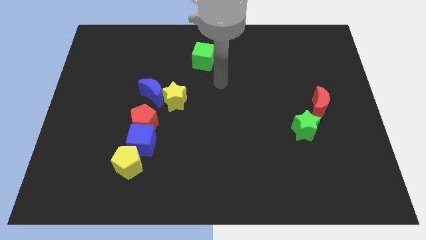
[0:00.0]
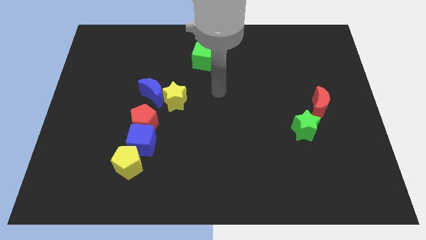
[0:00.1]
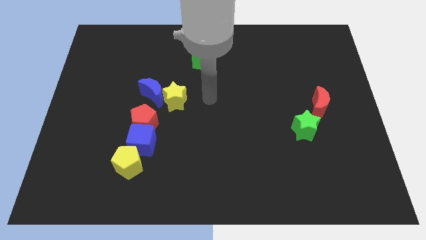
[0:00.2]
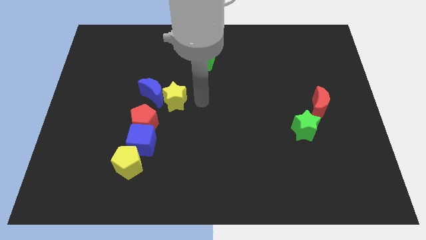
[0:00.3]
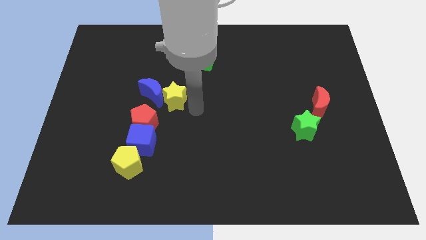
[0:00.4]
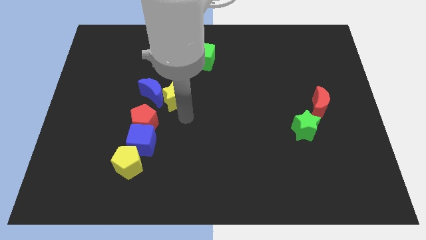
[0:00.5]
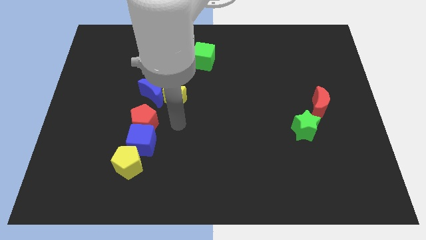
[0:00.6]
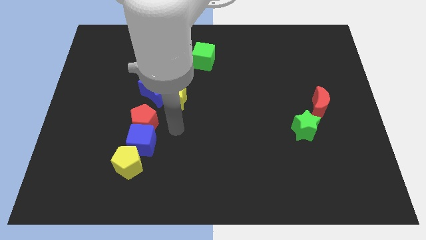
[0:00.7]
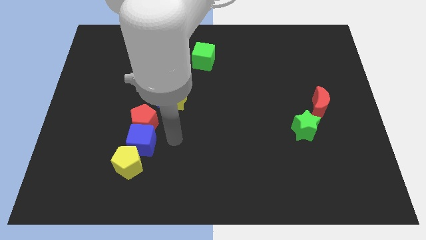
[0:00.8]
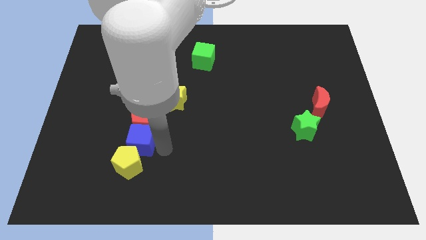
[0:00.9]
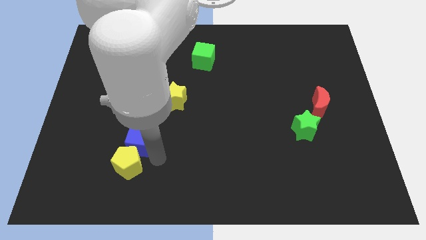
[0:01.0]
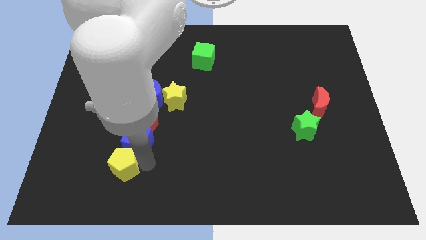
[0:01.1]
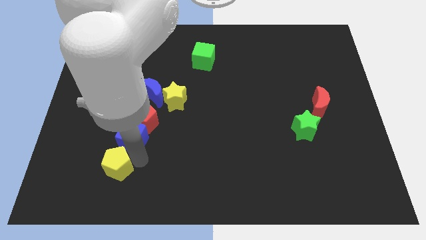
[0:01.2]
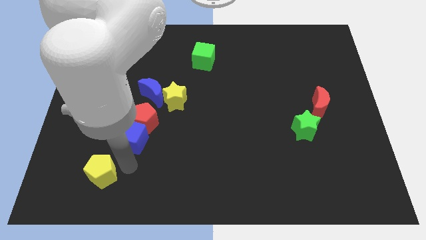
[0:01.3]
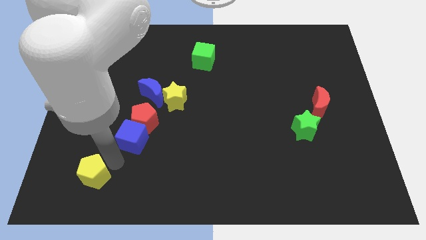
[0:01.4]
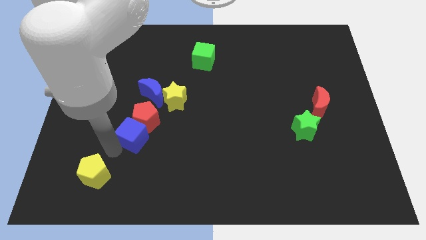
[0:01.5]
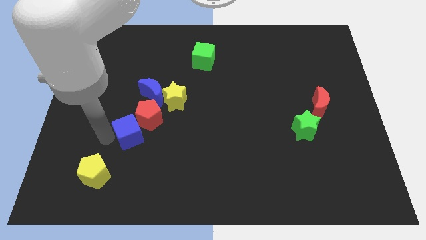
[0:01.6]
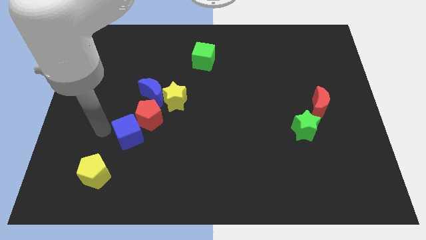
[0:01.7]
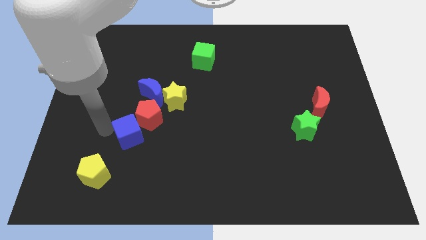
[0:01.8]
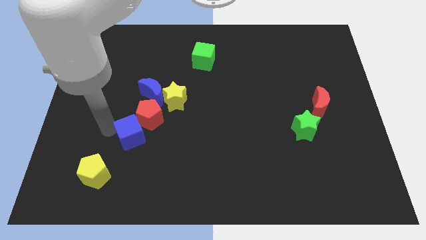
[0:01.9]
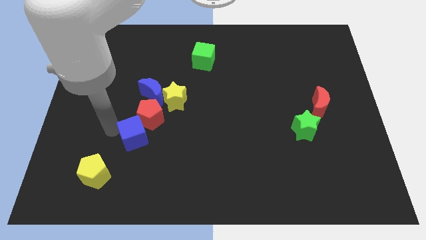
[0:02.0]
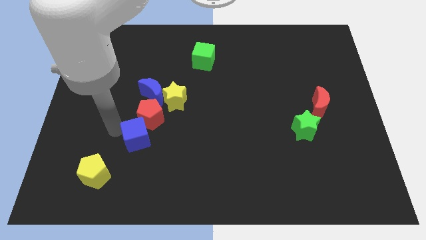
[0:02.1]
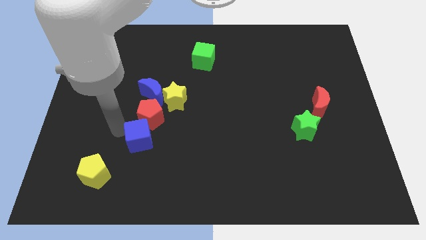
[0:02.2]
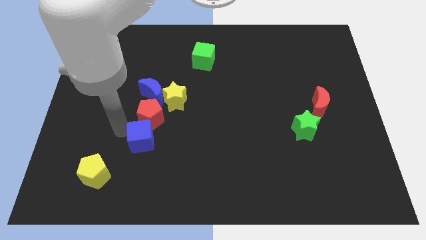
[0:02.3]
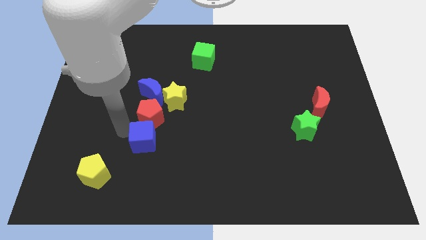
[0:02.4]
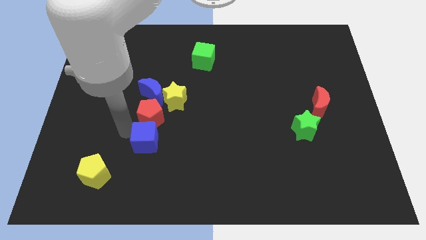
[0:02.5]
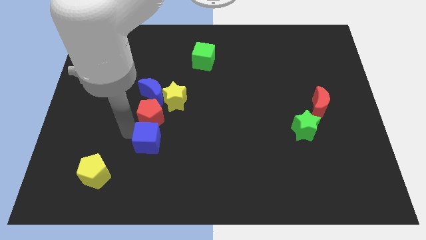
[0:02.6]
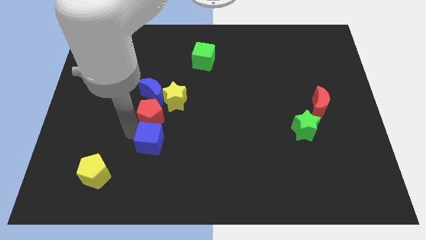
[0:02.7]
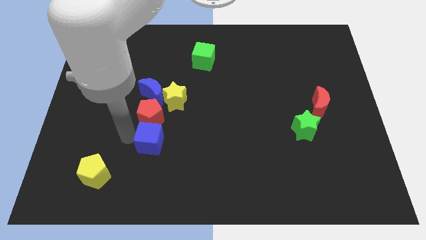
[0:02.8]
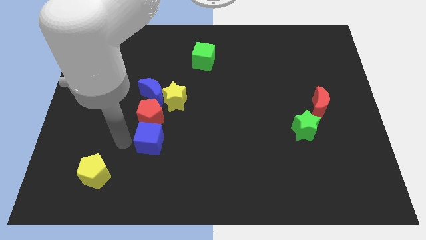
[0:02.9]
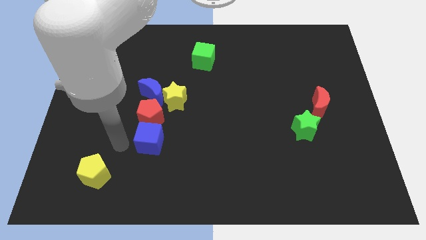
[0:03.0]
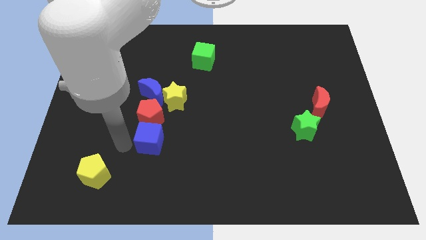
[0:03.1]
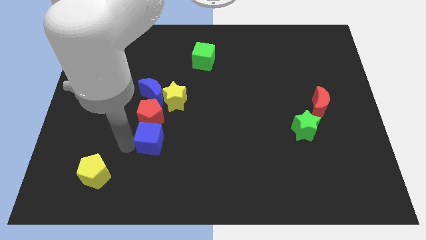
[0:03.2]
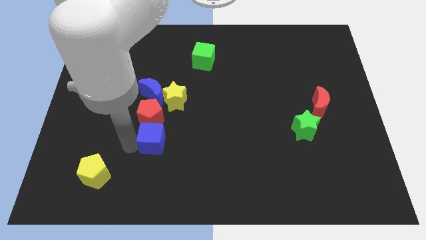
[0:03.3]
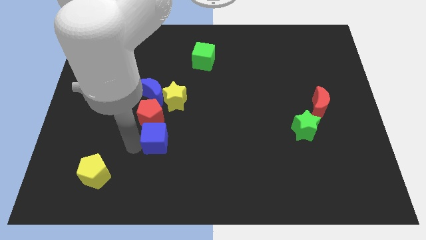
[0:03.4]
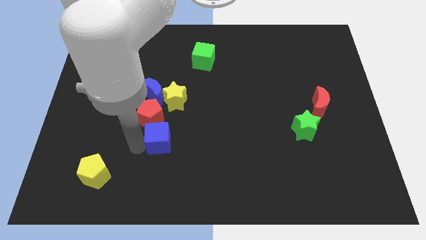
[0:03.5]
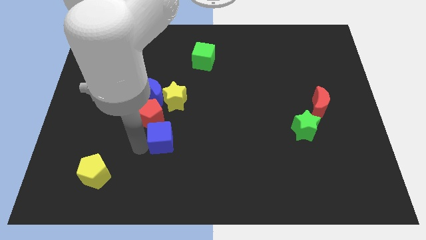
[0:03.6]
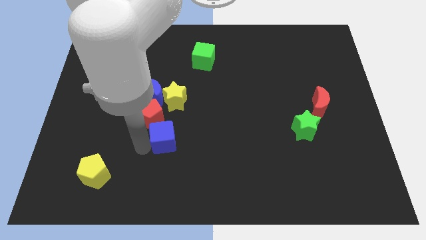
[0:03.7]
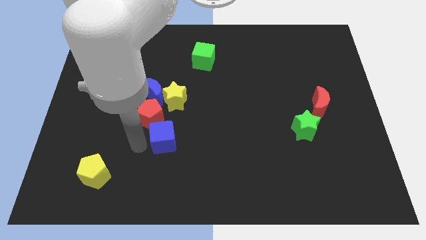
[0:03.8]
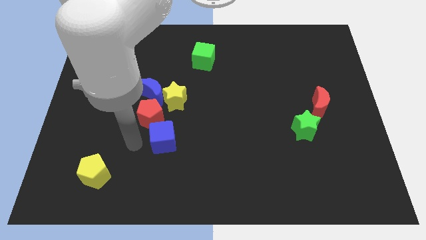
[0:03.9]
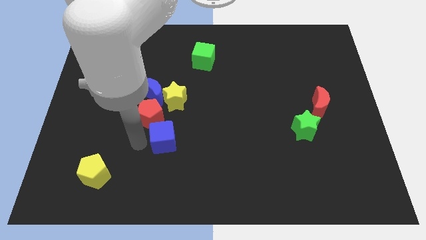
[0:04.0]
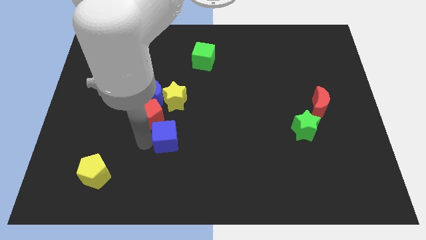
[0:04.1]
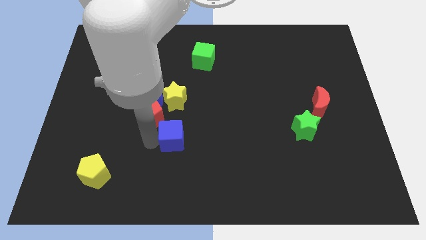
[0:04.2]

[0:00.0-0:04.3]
pull the blue cube apart from the red pentagon and yellow pentagon

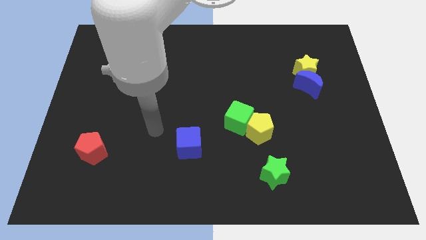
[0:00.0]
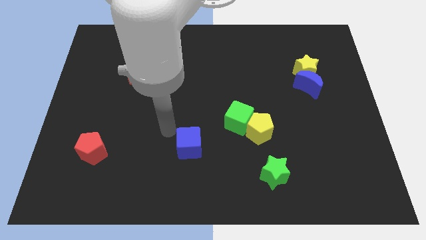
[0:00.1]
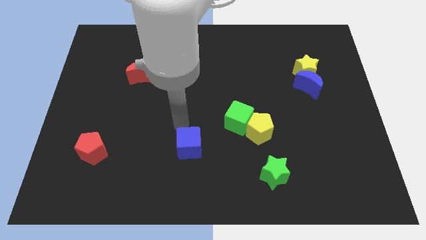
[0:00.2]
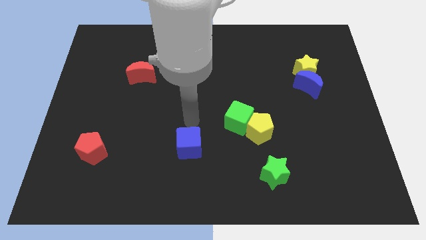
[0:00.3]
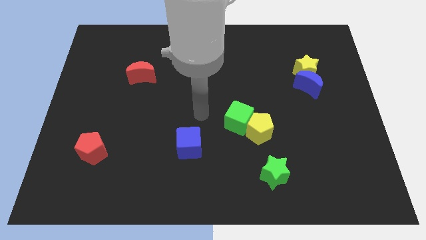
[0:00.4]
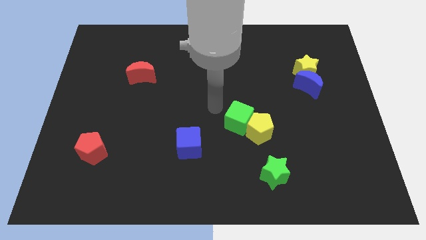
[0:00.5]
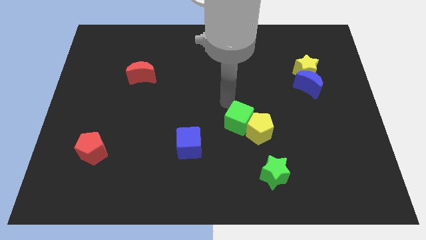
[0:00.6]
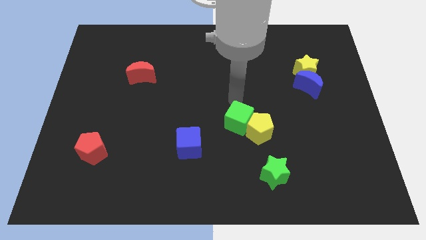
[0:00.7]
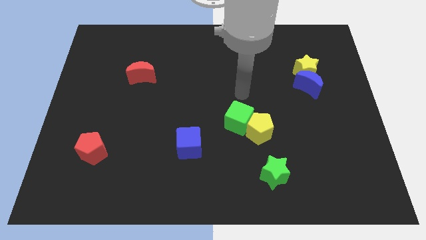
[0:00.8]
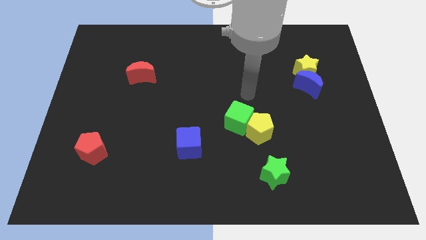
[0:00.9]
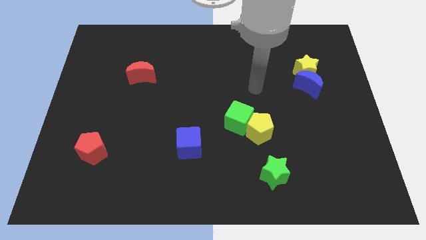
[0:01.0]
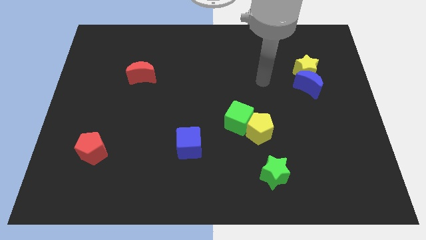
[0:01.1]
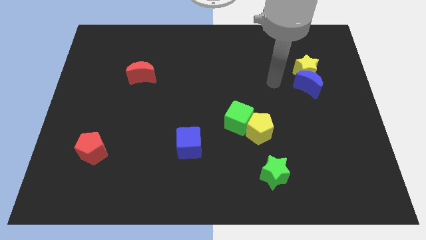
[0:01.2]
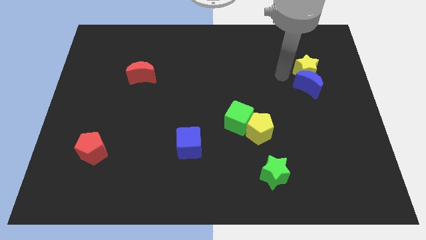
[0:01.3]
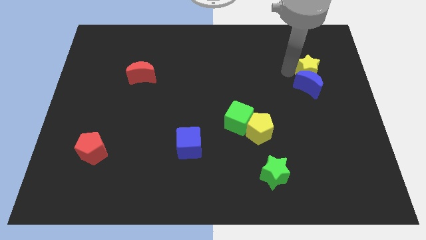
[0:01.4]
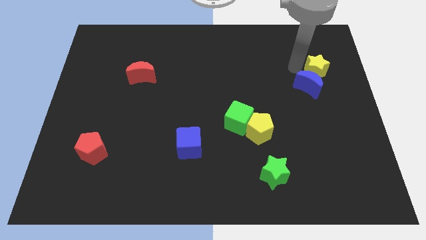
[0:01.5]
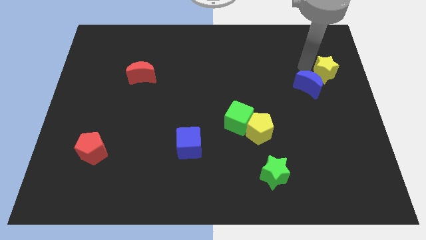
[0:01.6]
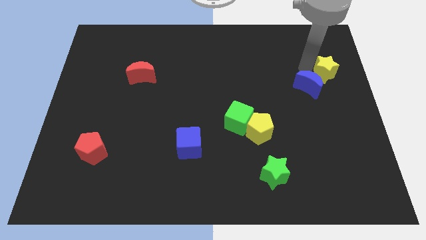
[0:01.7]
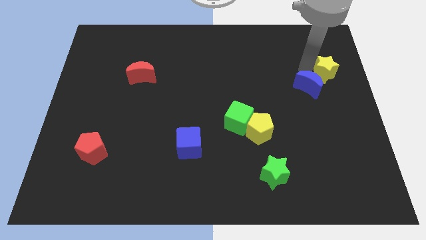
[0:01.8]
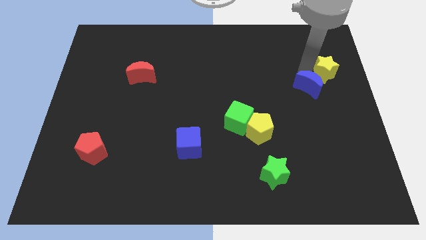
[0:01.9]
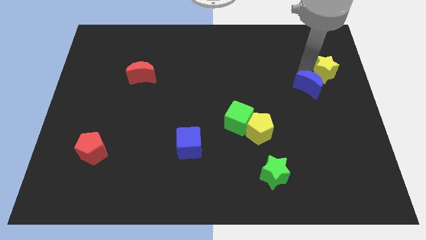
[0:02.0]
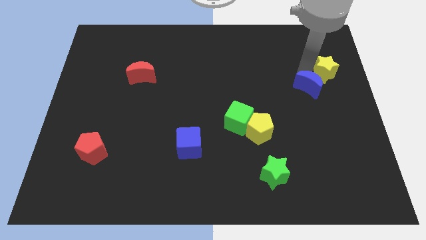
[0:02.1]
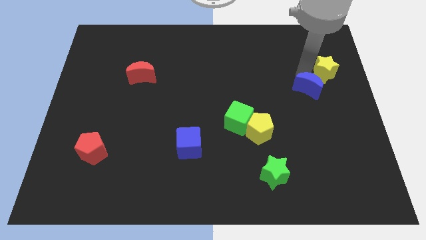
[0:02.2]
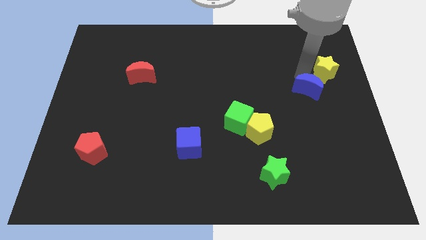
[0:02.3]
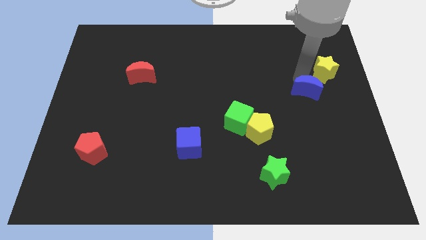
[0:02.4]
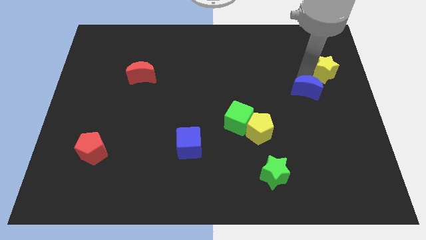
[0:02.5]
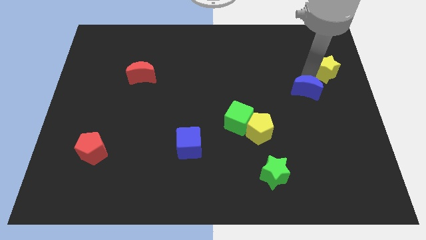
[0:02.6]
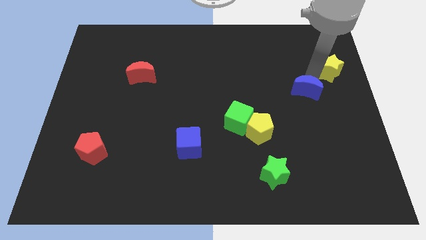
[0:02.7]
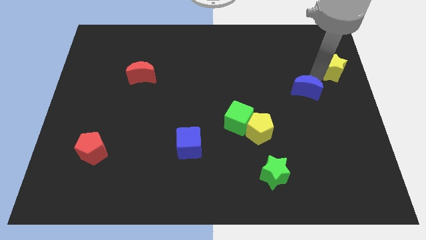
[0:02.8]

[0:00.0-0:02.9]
move the blue moon away from the yellow star

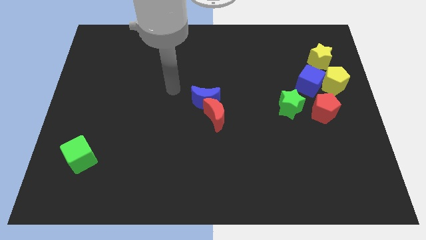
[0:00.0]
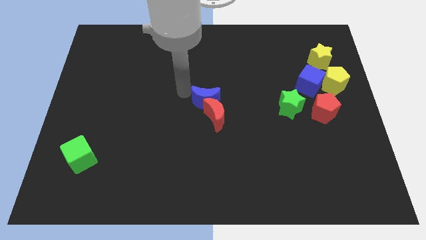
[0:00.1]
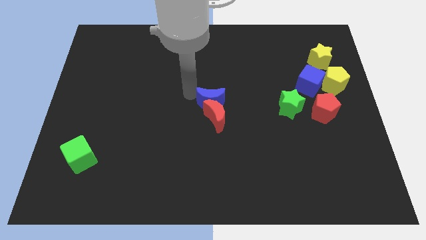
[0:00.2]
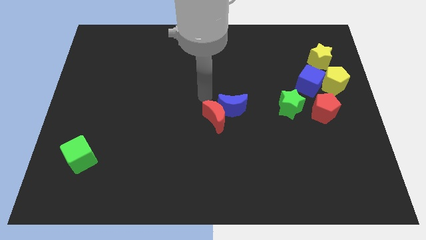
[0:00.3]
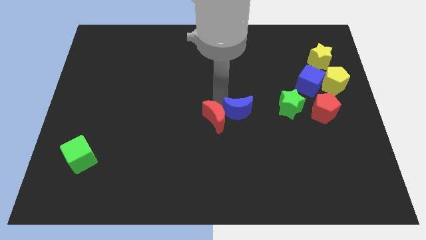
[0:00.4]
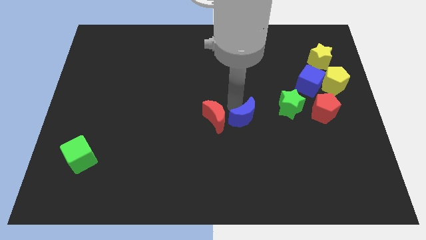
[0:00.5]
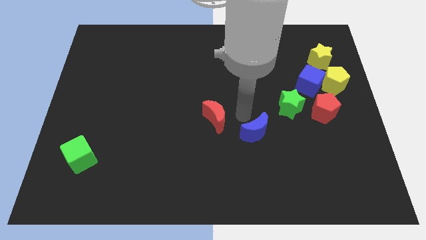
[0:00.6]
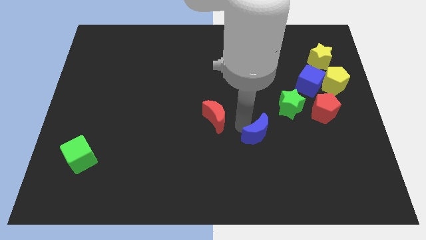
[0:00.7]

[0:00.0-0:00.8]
separate the red moon from the blue moon

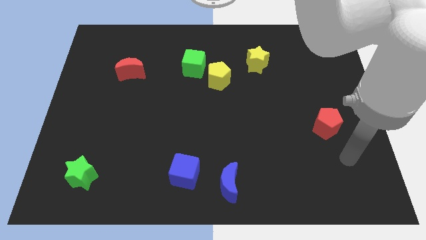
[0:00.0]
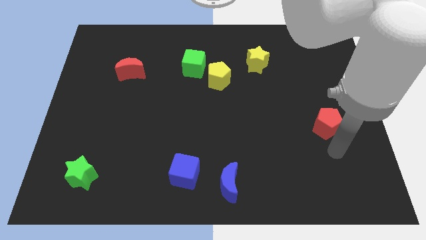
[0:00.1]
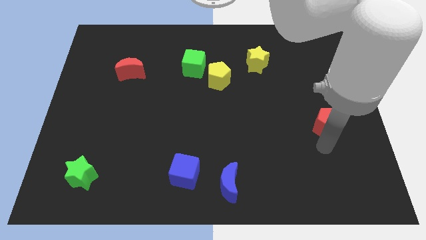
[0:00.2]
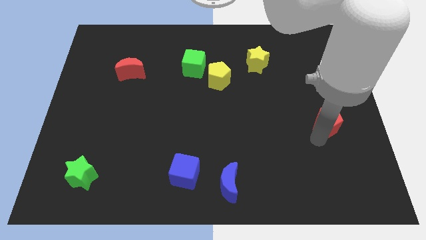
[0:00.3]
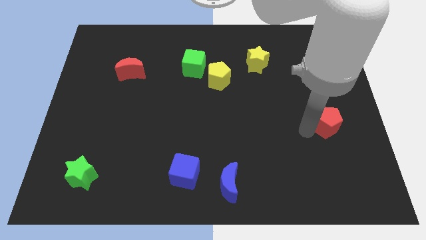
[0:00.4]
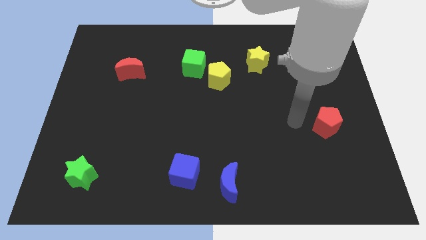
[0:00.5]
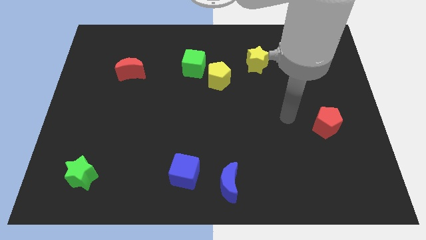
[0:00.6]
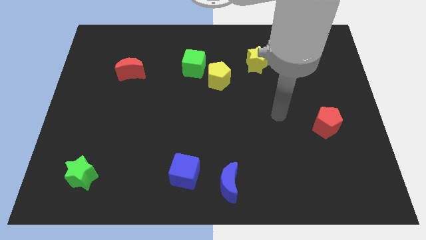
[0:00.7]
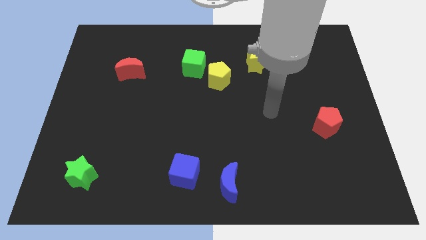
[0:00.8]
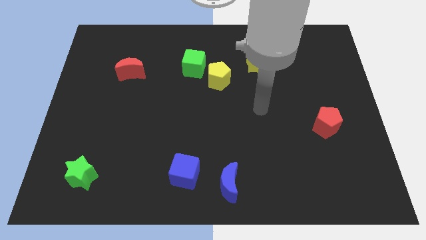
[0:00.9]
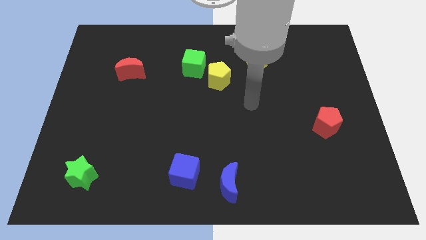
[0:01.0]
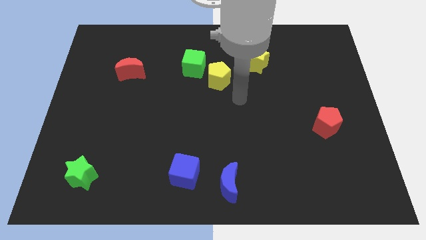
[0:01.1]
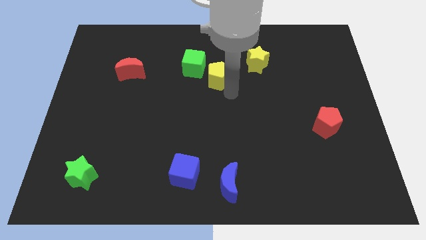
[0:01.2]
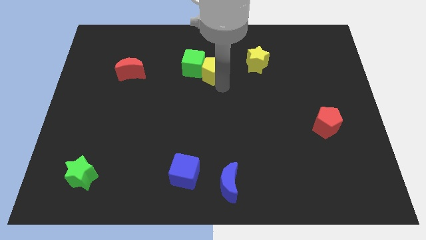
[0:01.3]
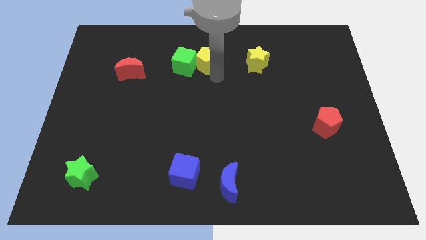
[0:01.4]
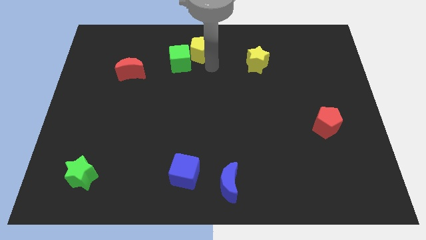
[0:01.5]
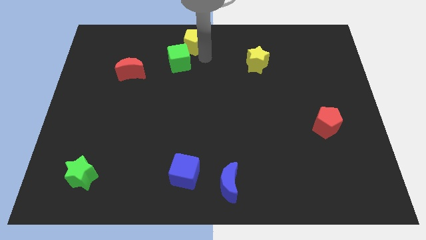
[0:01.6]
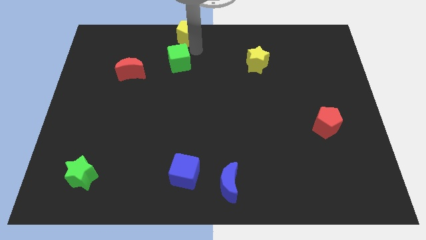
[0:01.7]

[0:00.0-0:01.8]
move the green cube away from the yellow pentagon
